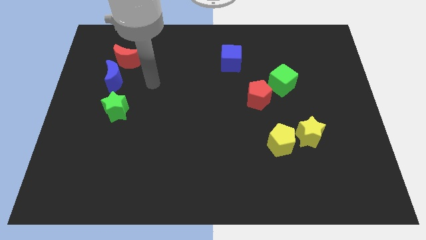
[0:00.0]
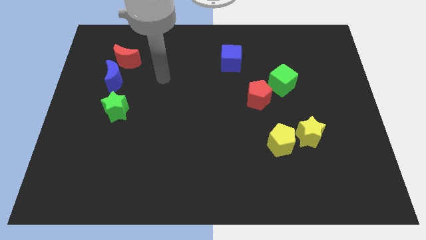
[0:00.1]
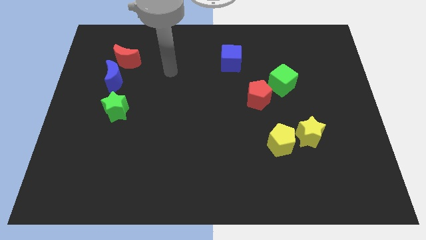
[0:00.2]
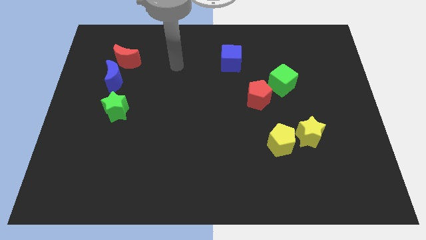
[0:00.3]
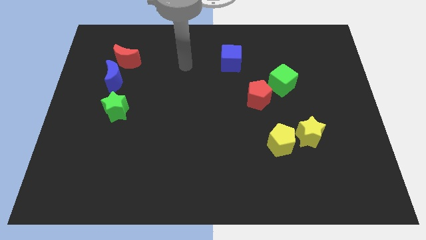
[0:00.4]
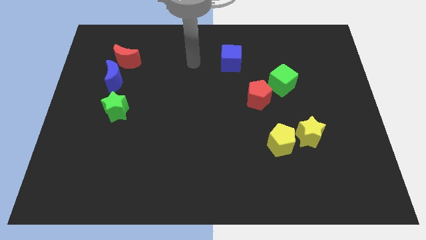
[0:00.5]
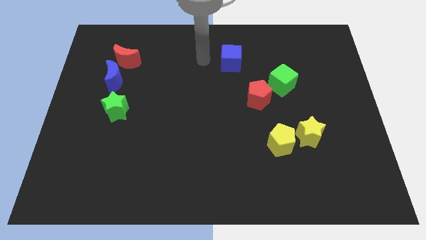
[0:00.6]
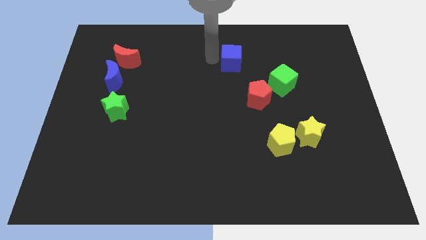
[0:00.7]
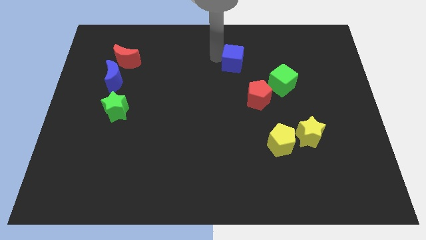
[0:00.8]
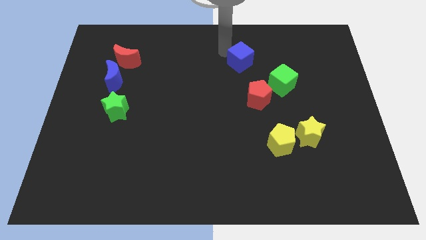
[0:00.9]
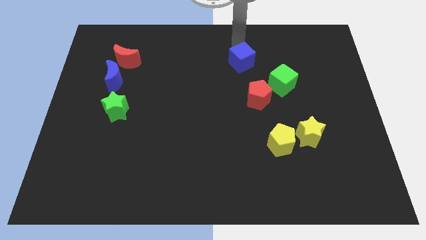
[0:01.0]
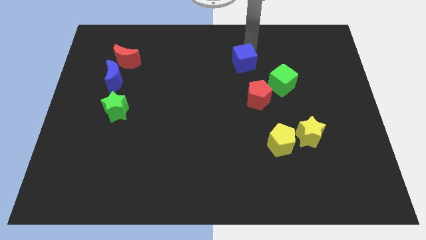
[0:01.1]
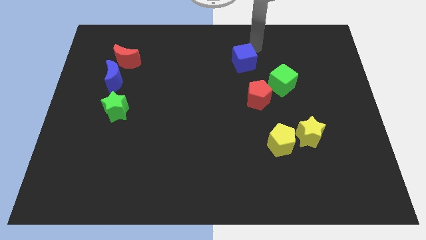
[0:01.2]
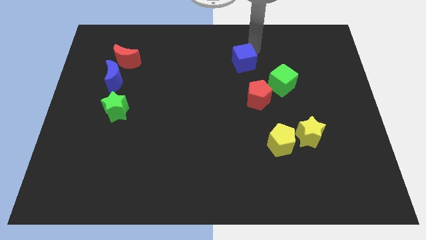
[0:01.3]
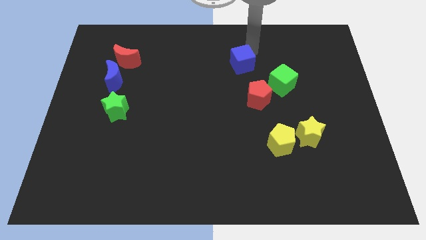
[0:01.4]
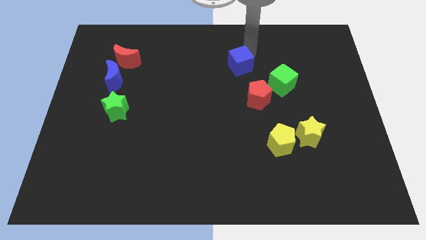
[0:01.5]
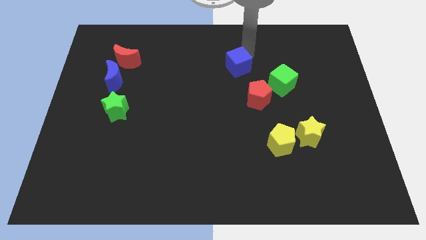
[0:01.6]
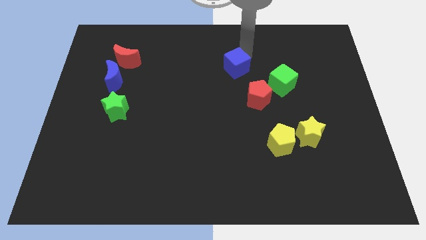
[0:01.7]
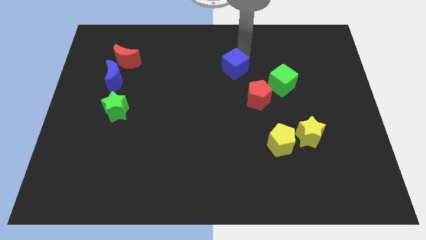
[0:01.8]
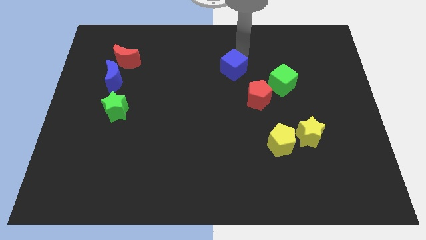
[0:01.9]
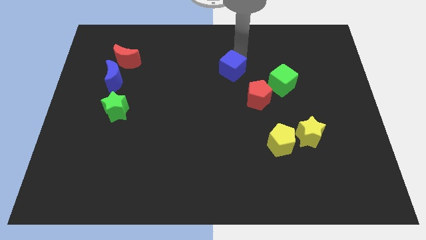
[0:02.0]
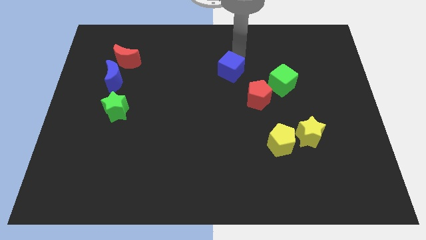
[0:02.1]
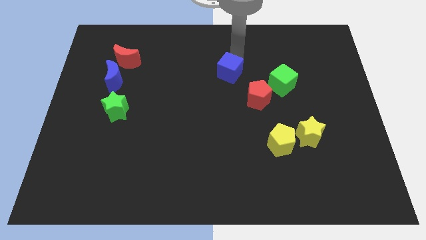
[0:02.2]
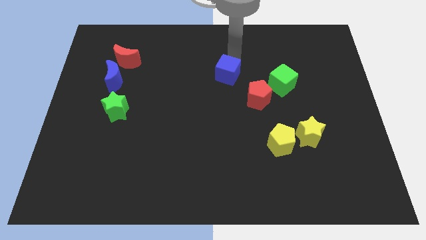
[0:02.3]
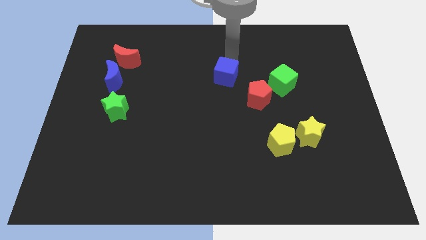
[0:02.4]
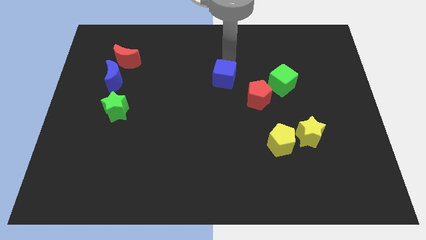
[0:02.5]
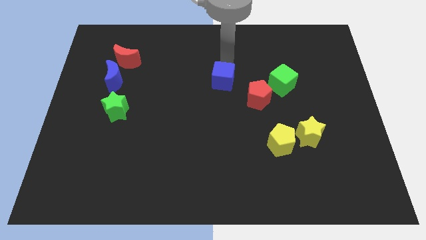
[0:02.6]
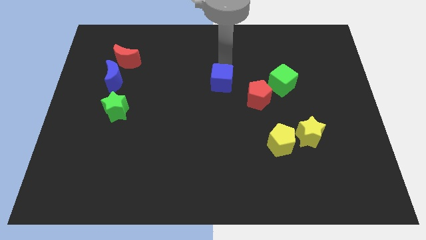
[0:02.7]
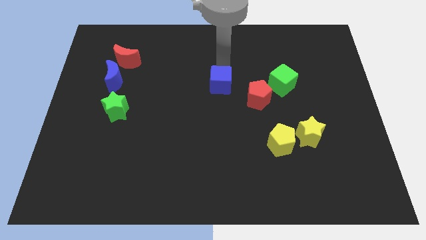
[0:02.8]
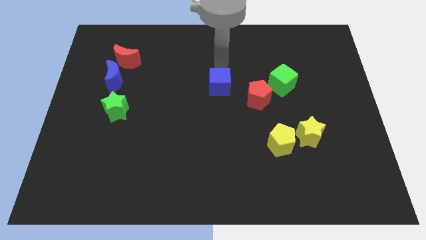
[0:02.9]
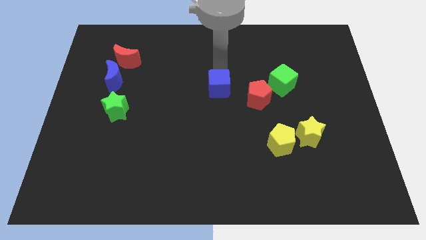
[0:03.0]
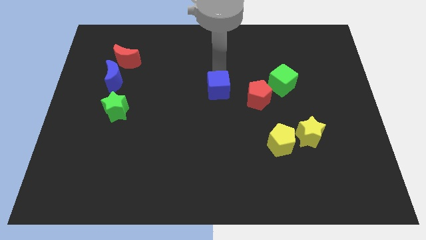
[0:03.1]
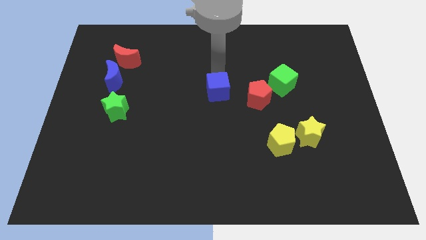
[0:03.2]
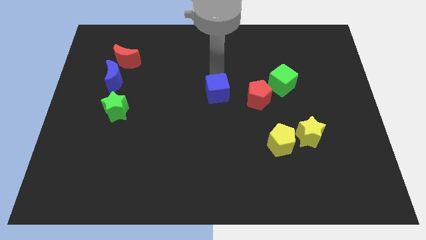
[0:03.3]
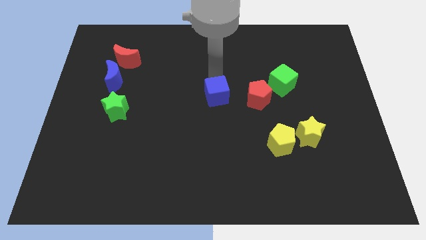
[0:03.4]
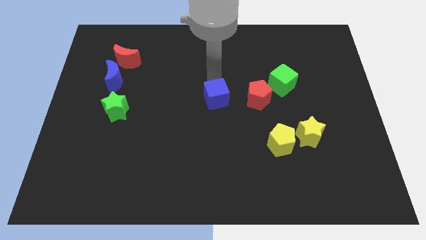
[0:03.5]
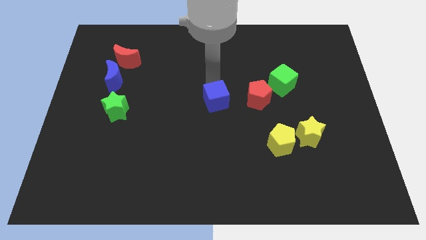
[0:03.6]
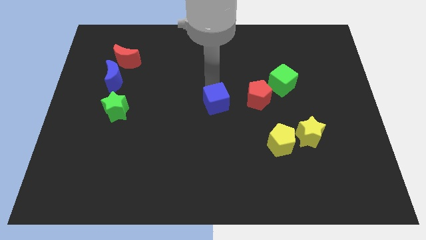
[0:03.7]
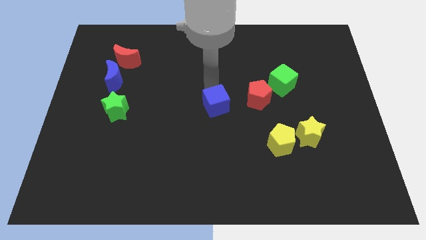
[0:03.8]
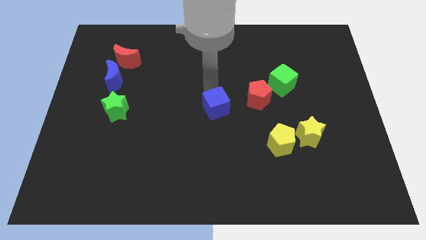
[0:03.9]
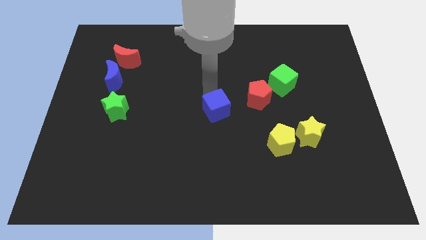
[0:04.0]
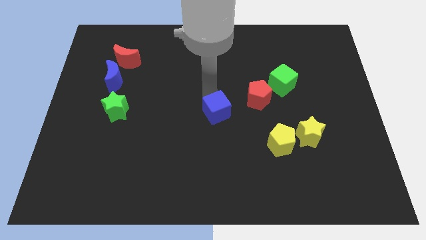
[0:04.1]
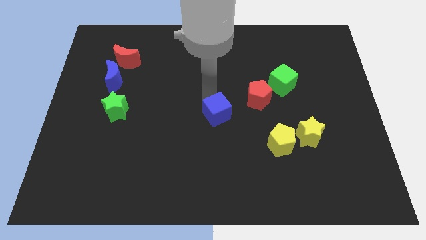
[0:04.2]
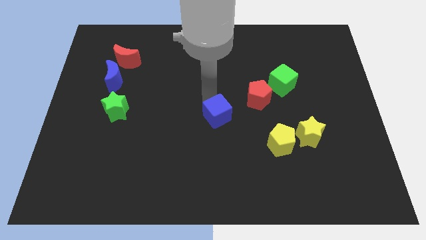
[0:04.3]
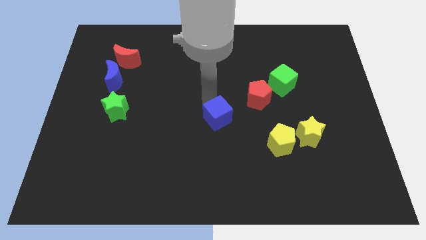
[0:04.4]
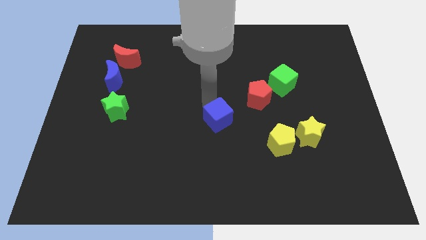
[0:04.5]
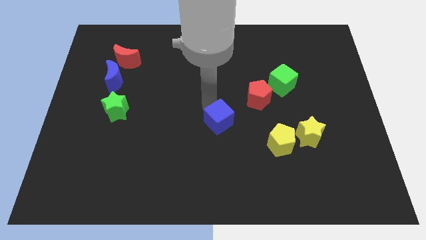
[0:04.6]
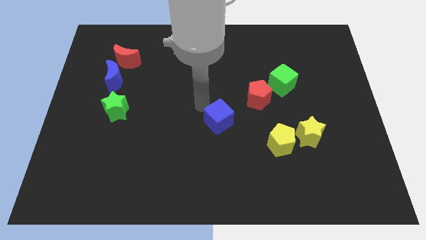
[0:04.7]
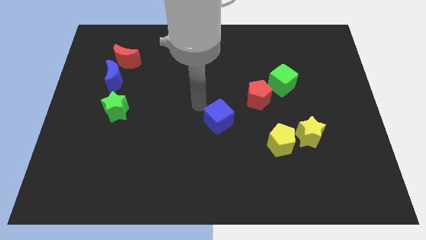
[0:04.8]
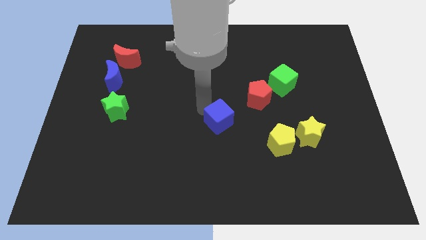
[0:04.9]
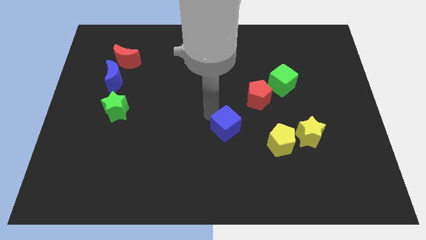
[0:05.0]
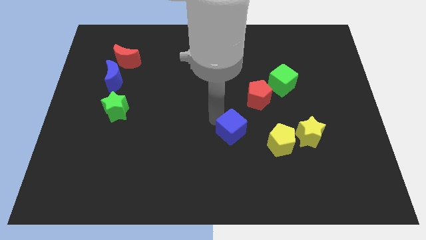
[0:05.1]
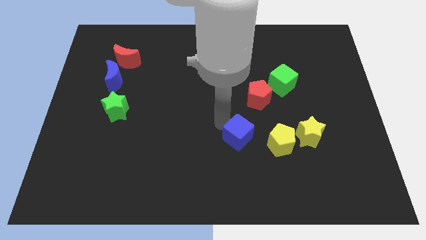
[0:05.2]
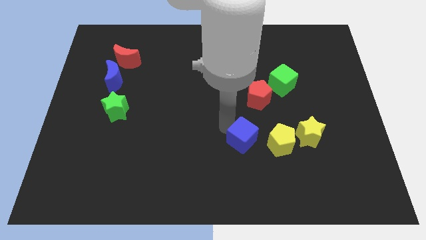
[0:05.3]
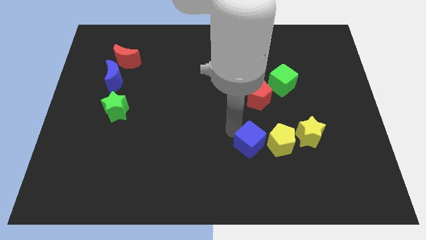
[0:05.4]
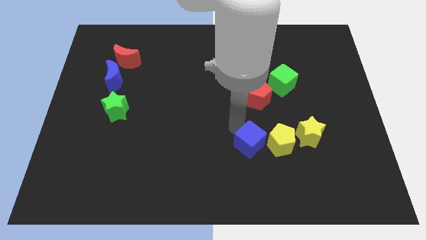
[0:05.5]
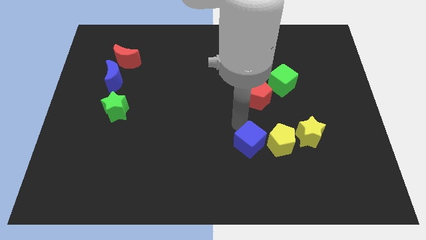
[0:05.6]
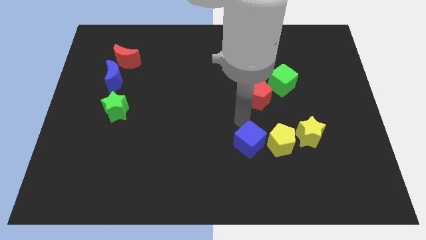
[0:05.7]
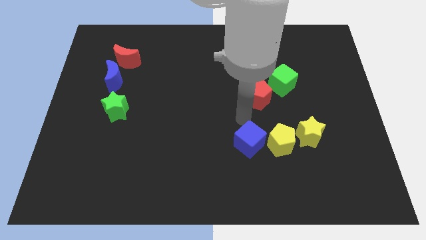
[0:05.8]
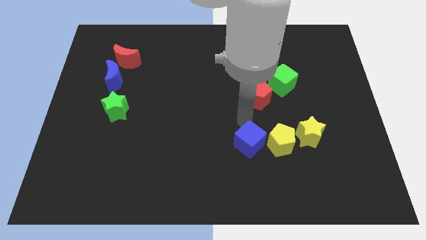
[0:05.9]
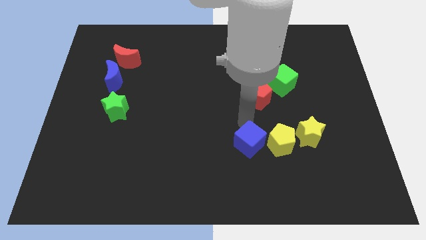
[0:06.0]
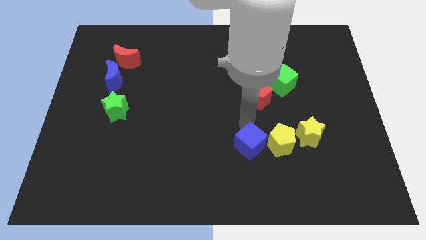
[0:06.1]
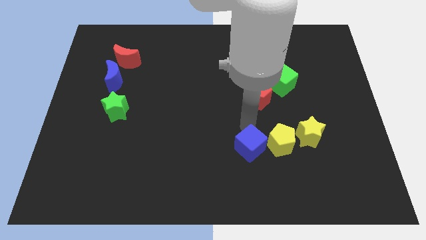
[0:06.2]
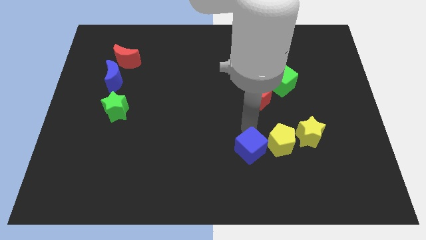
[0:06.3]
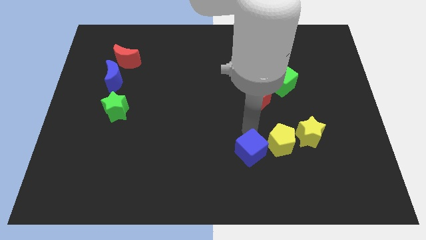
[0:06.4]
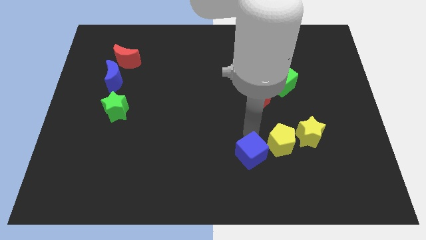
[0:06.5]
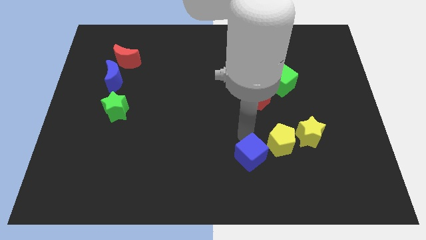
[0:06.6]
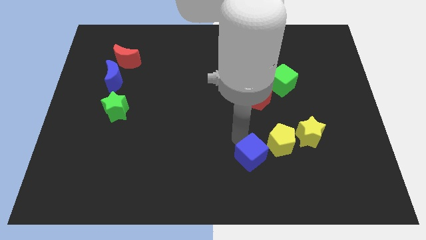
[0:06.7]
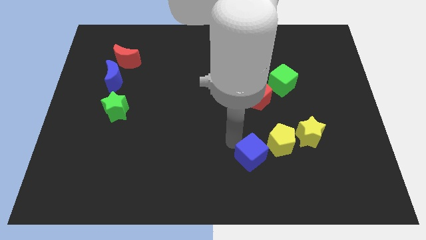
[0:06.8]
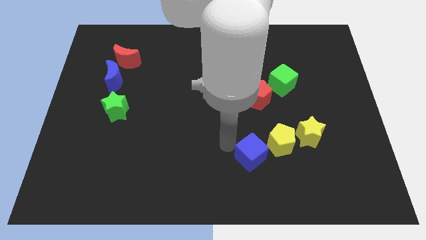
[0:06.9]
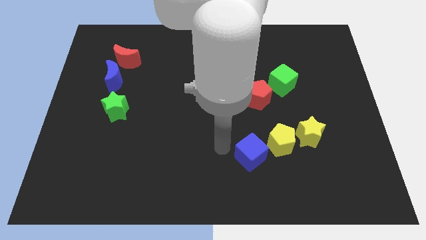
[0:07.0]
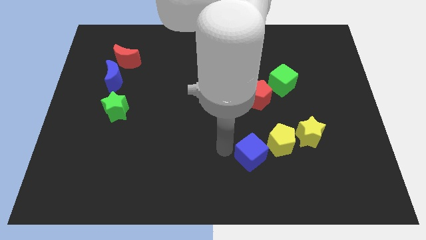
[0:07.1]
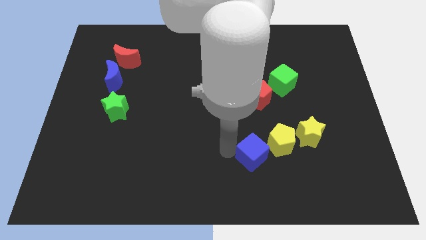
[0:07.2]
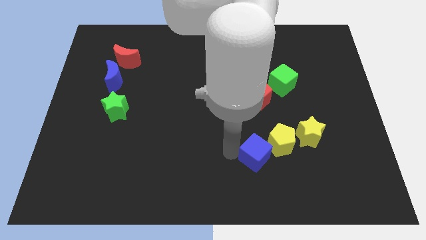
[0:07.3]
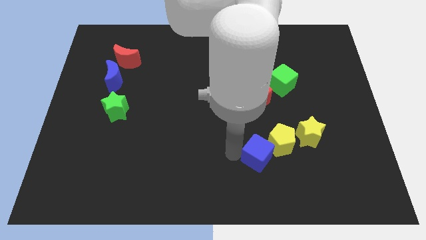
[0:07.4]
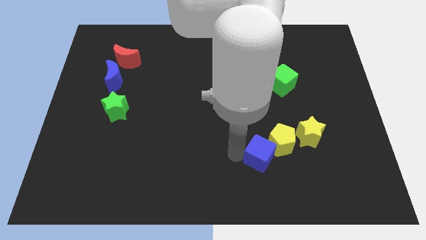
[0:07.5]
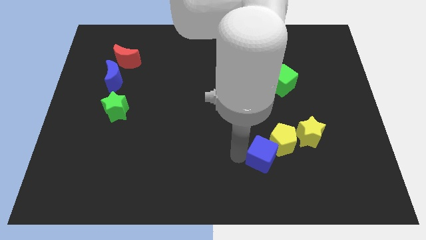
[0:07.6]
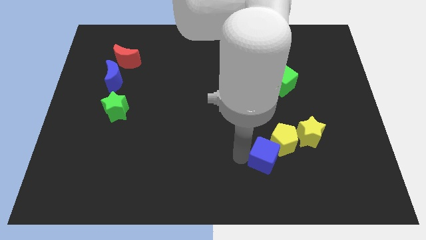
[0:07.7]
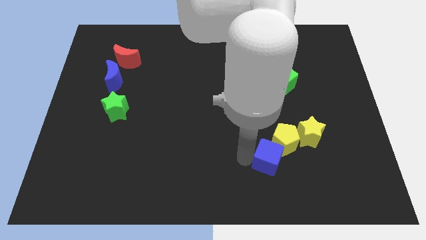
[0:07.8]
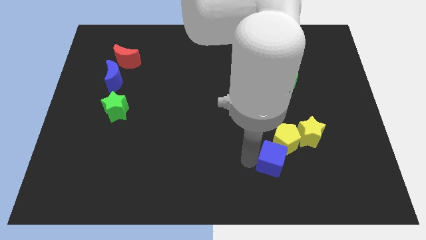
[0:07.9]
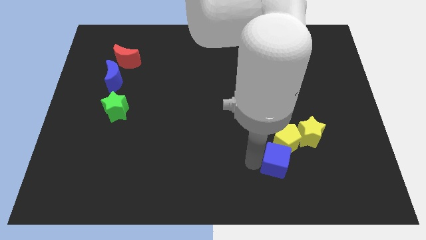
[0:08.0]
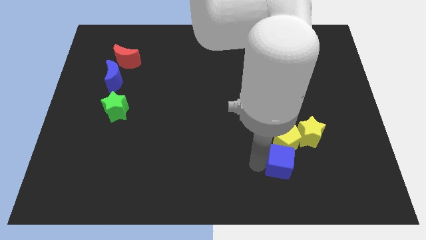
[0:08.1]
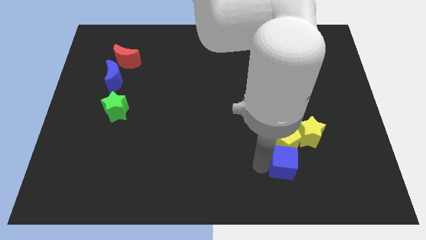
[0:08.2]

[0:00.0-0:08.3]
move the blue cube to the bottom right side of the yellow pentagon
